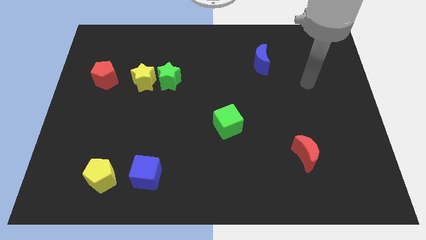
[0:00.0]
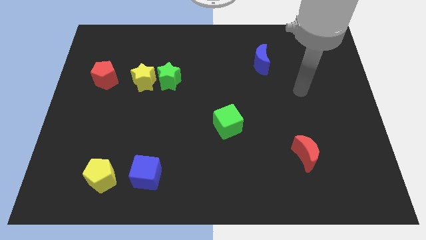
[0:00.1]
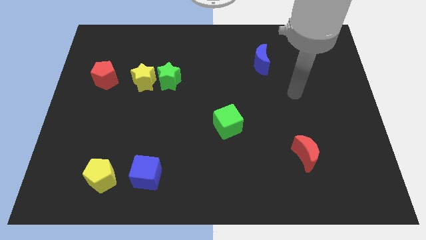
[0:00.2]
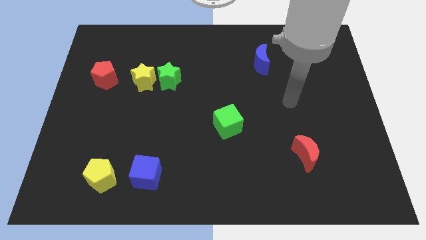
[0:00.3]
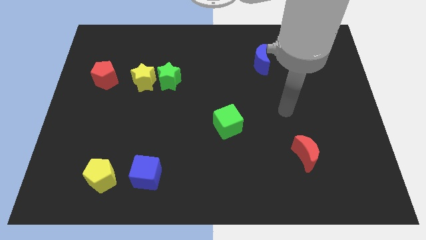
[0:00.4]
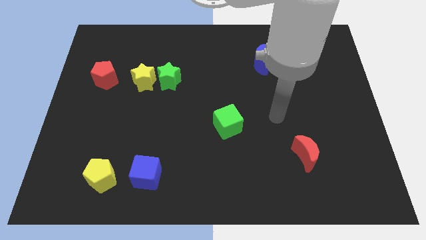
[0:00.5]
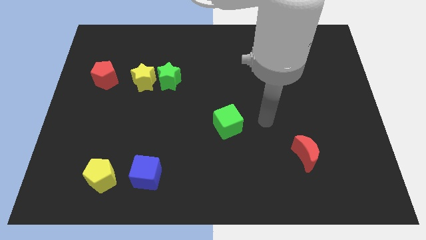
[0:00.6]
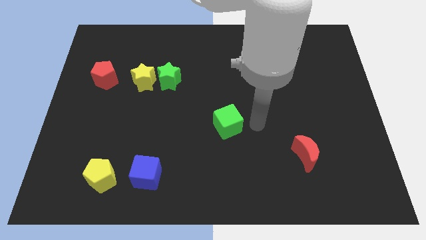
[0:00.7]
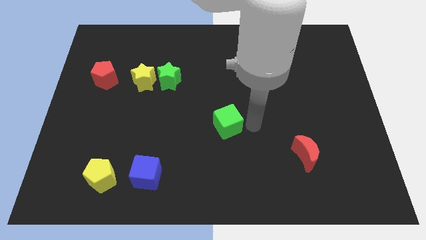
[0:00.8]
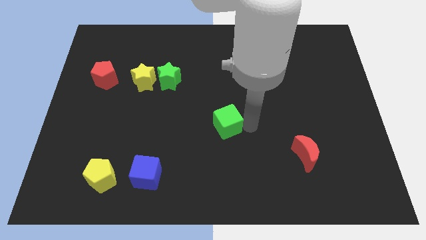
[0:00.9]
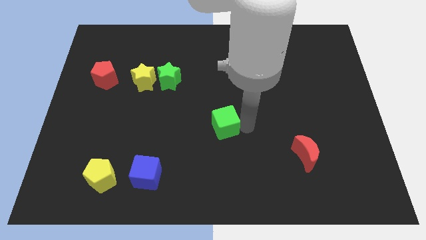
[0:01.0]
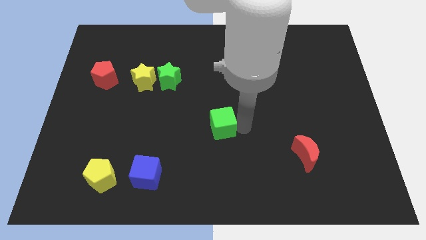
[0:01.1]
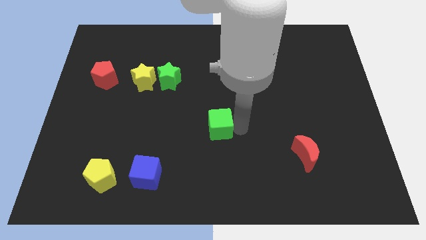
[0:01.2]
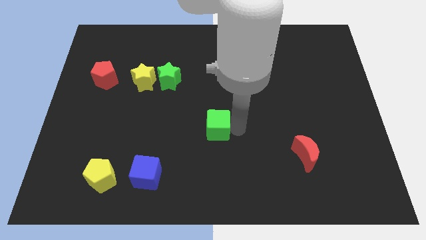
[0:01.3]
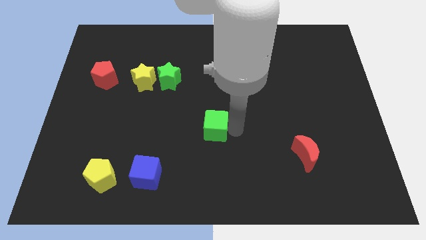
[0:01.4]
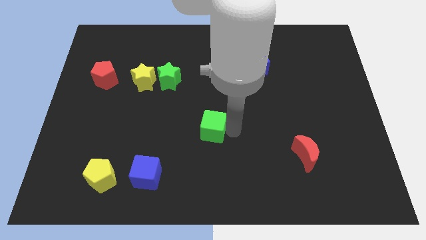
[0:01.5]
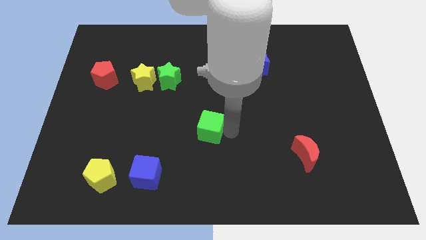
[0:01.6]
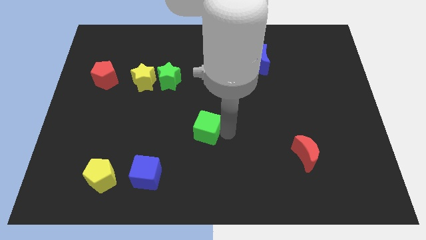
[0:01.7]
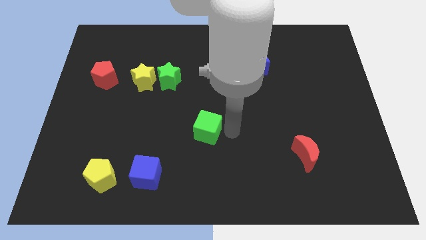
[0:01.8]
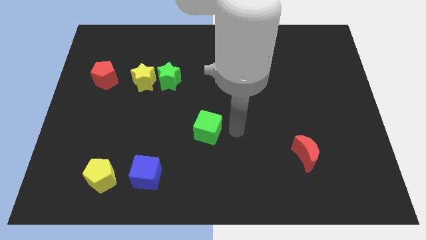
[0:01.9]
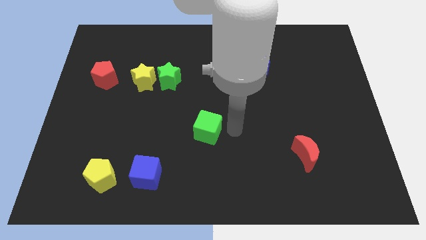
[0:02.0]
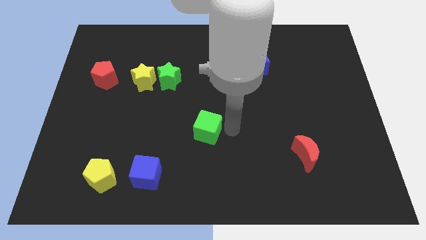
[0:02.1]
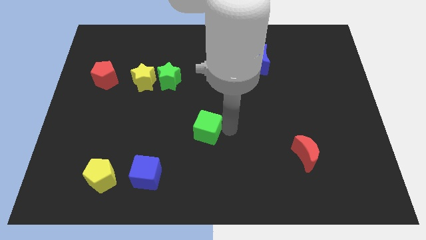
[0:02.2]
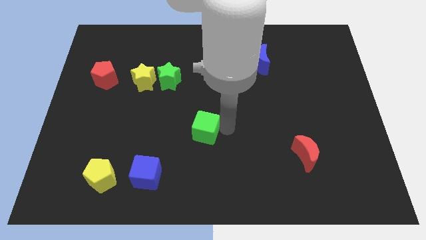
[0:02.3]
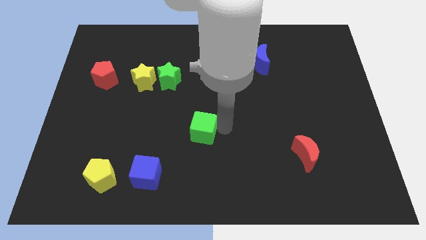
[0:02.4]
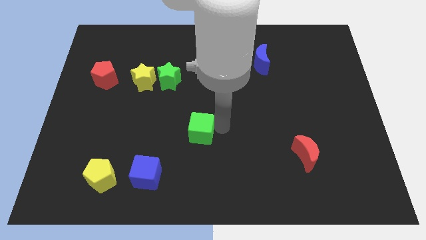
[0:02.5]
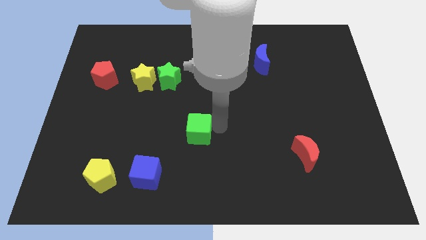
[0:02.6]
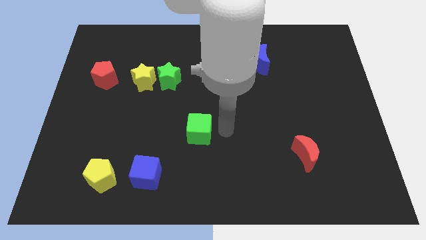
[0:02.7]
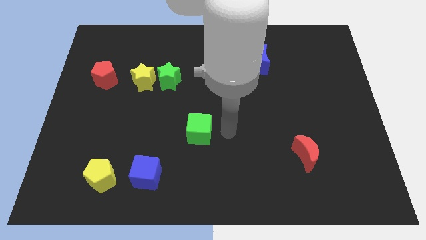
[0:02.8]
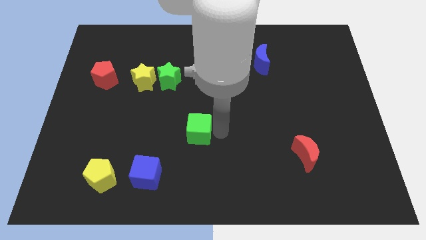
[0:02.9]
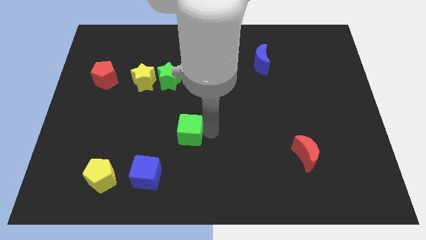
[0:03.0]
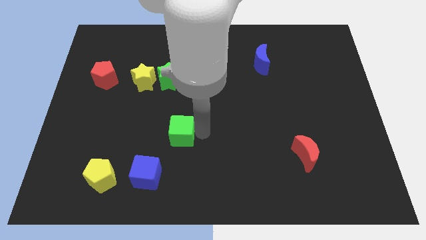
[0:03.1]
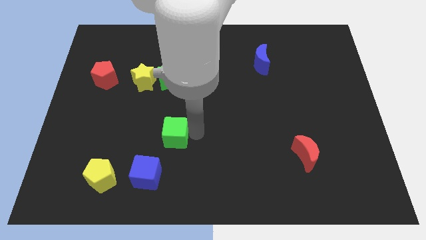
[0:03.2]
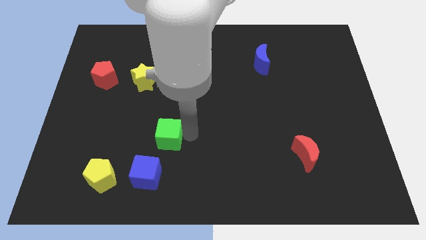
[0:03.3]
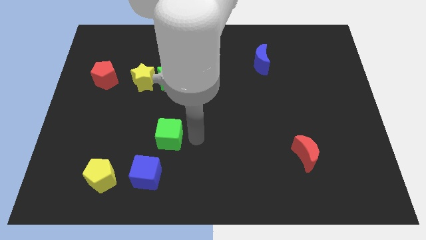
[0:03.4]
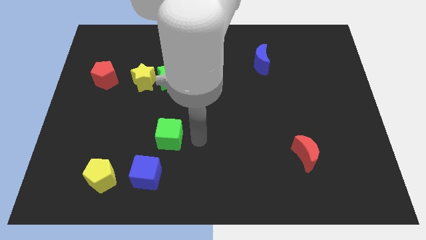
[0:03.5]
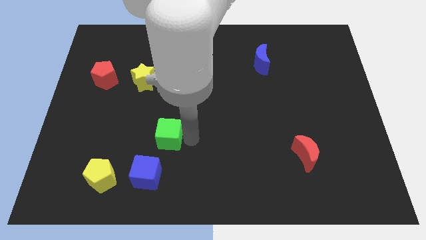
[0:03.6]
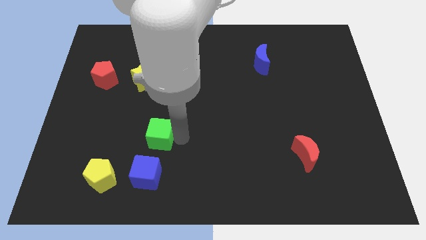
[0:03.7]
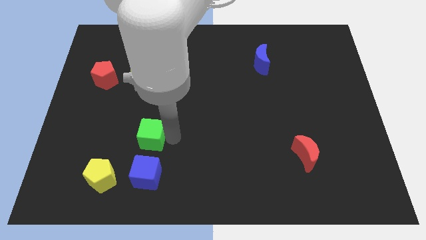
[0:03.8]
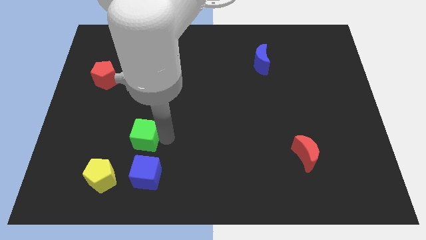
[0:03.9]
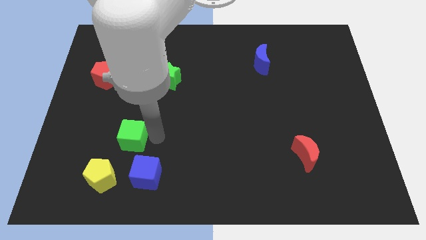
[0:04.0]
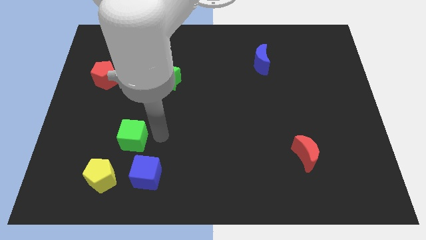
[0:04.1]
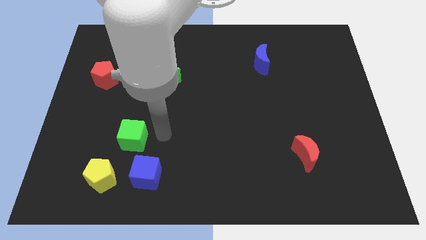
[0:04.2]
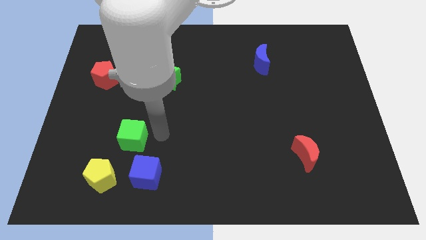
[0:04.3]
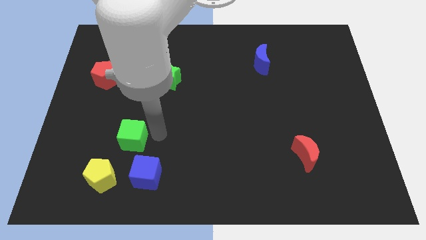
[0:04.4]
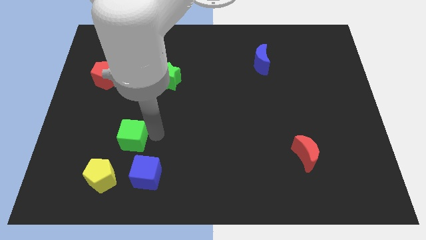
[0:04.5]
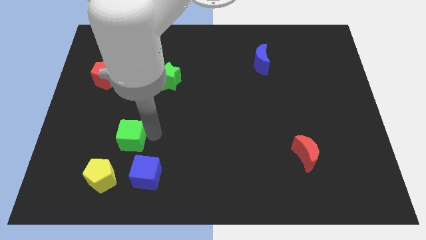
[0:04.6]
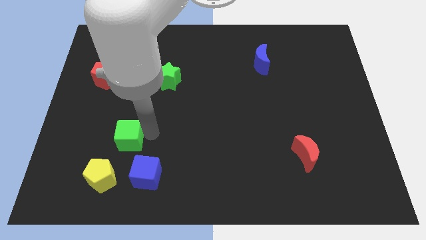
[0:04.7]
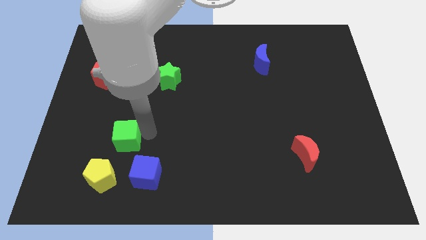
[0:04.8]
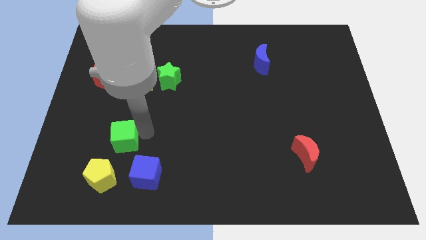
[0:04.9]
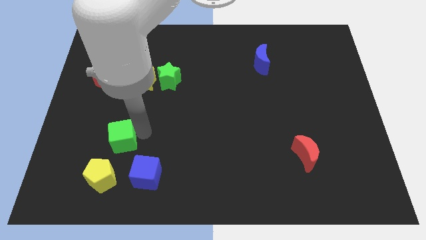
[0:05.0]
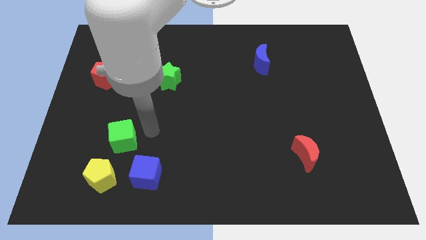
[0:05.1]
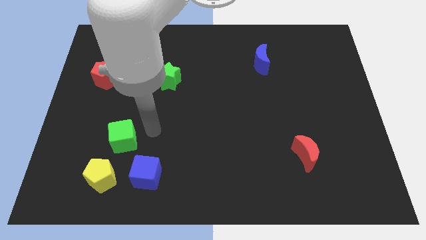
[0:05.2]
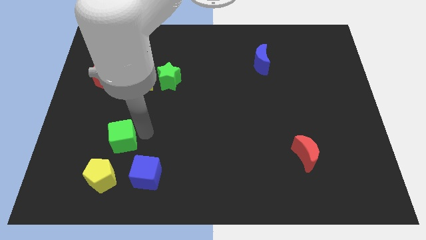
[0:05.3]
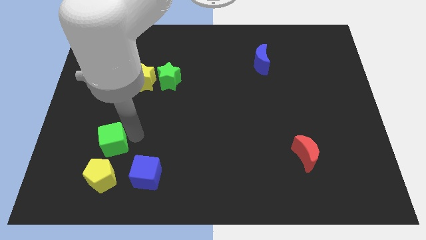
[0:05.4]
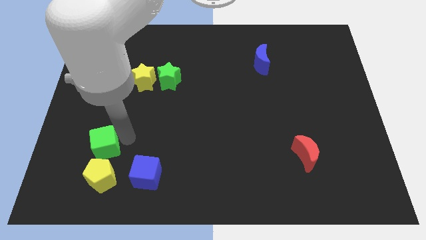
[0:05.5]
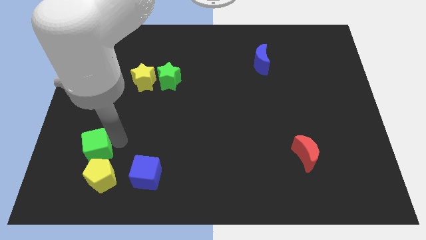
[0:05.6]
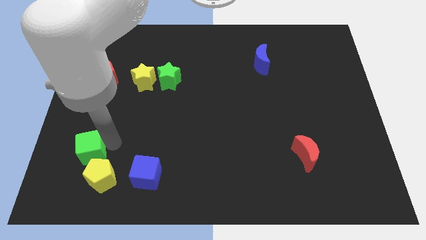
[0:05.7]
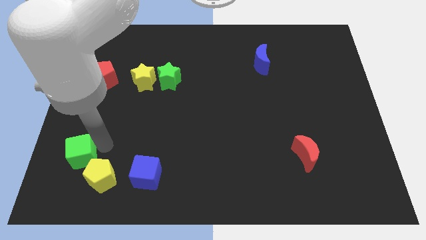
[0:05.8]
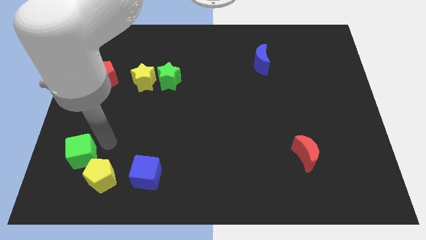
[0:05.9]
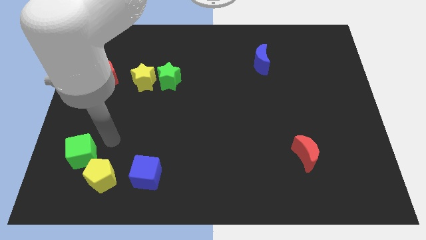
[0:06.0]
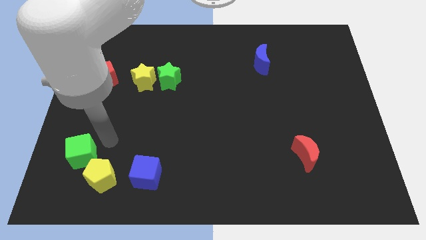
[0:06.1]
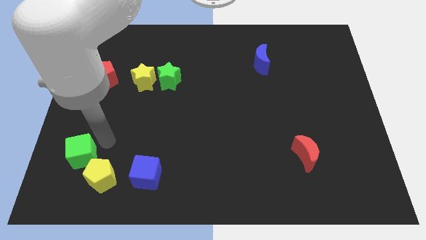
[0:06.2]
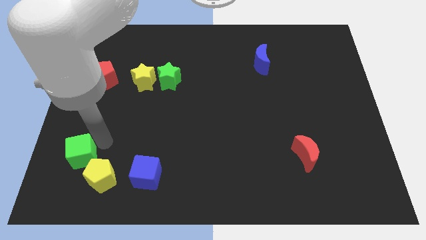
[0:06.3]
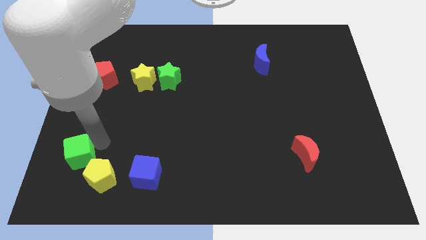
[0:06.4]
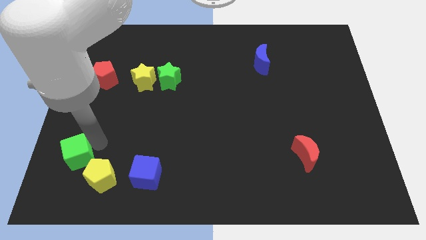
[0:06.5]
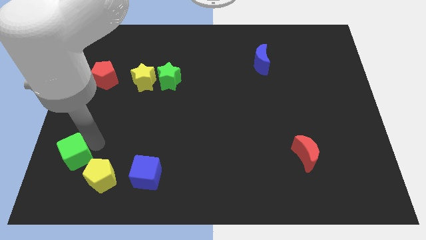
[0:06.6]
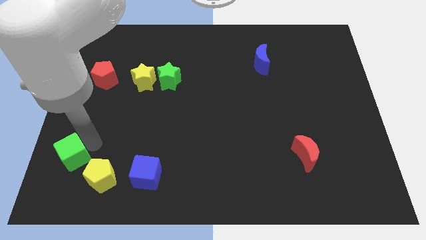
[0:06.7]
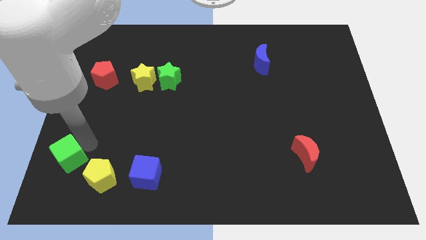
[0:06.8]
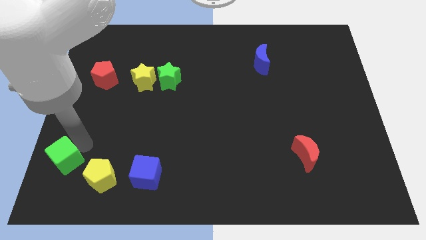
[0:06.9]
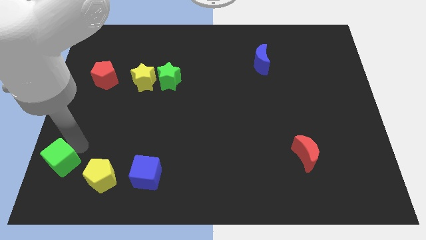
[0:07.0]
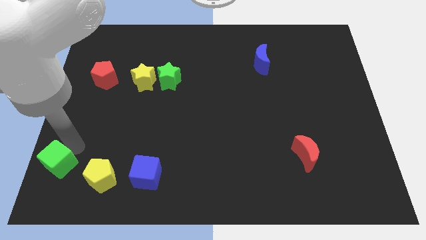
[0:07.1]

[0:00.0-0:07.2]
slide the green cube to the lower left corner

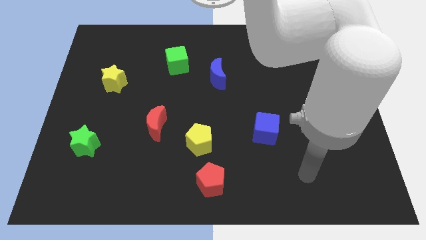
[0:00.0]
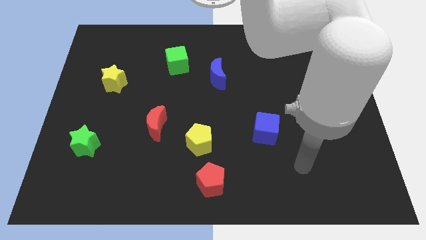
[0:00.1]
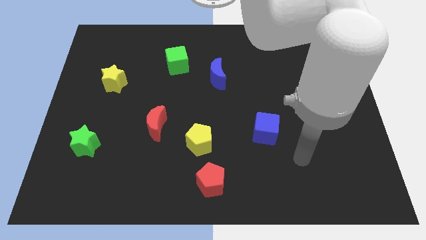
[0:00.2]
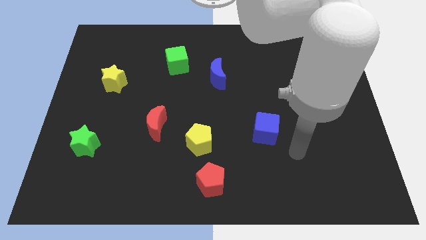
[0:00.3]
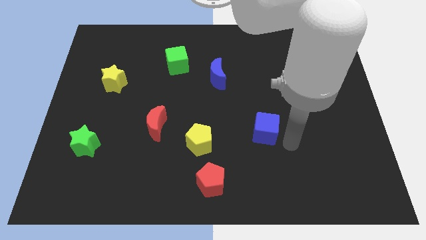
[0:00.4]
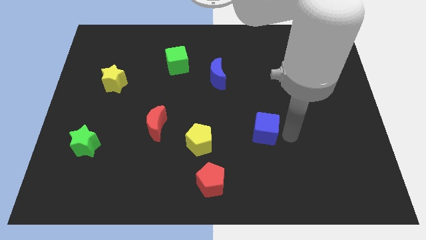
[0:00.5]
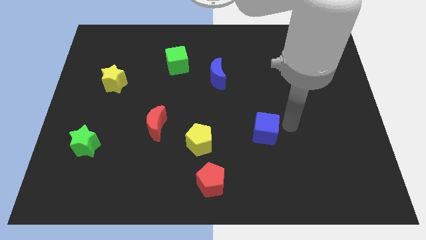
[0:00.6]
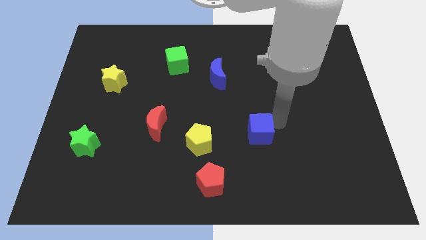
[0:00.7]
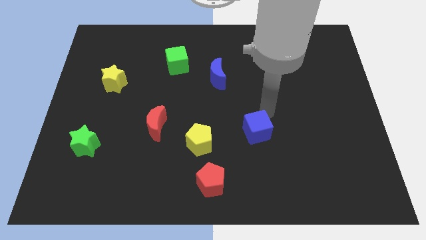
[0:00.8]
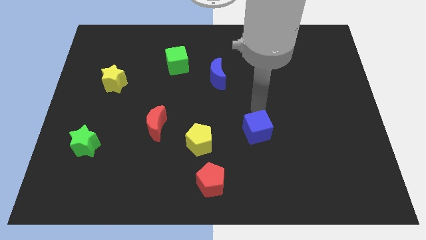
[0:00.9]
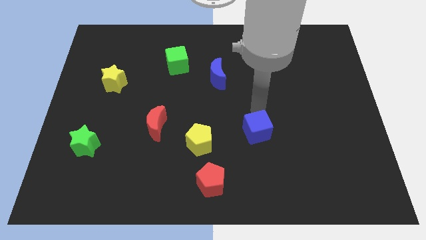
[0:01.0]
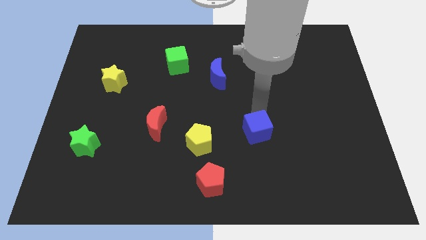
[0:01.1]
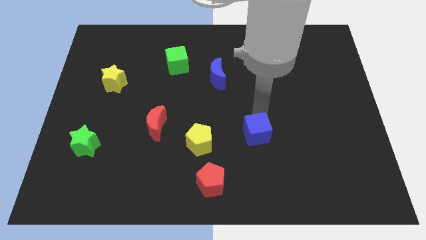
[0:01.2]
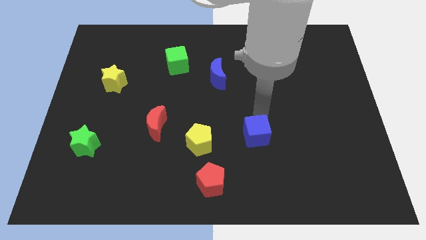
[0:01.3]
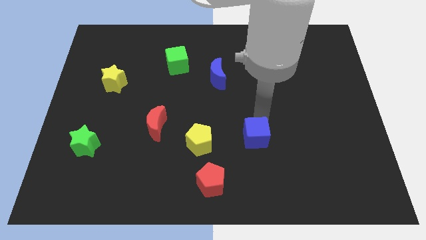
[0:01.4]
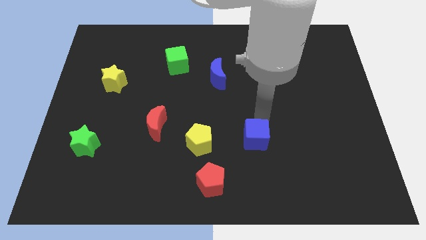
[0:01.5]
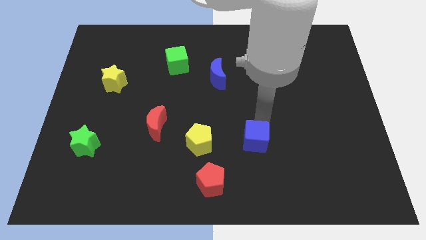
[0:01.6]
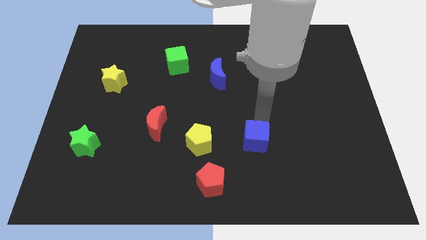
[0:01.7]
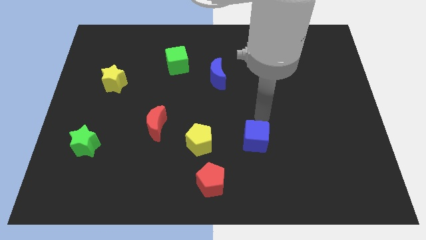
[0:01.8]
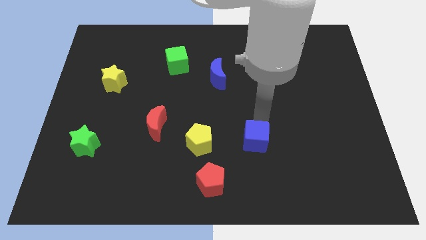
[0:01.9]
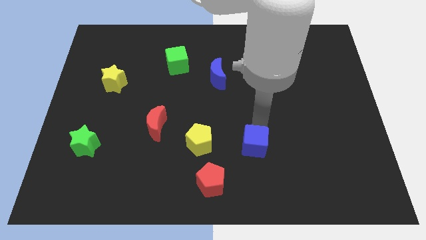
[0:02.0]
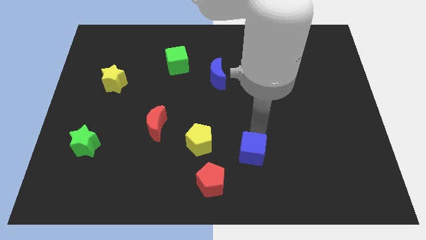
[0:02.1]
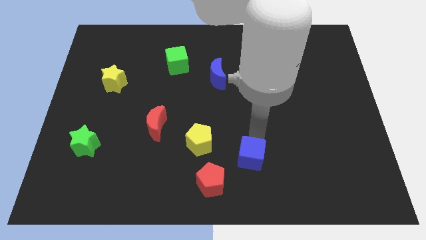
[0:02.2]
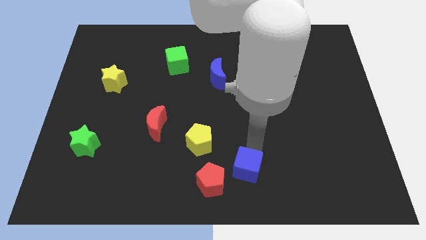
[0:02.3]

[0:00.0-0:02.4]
put the blue cube to the bottom
